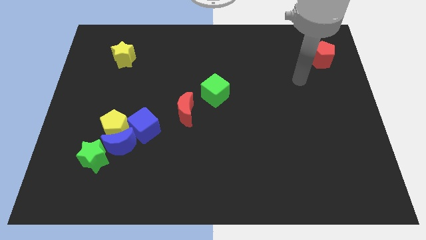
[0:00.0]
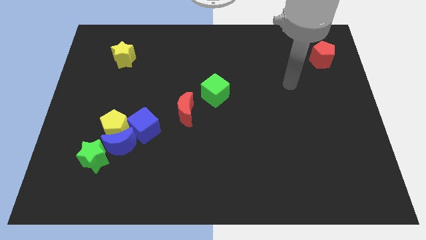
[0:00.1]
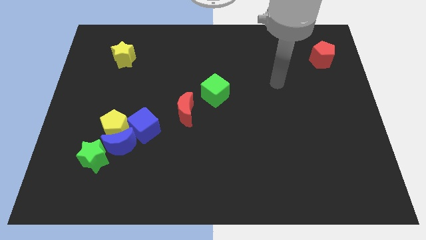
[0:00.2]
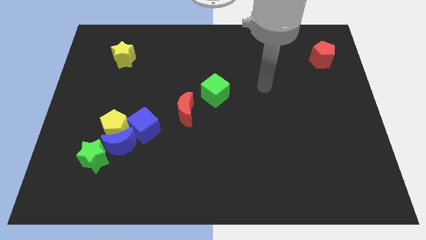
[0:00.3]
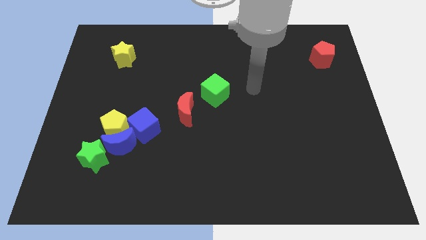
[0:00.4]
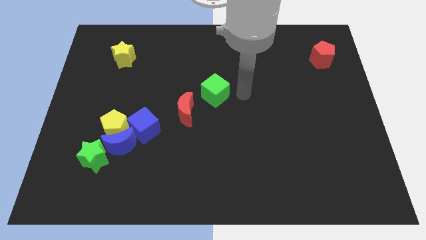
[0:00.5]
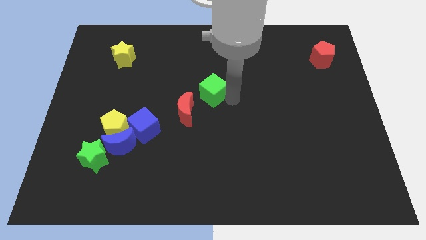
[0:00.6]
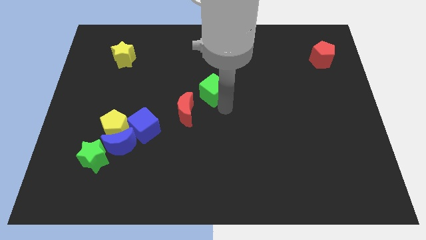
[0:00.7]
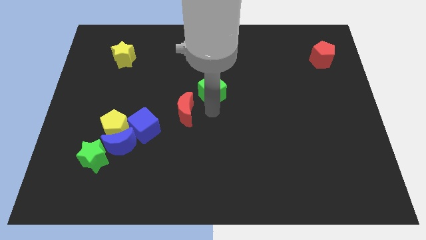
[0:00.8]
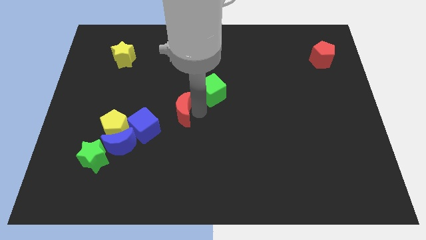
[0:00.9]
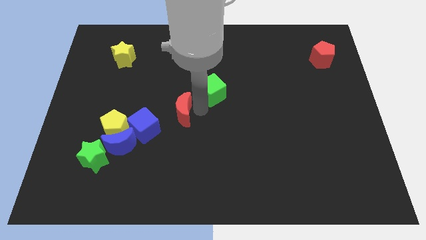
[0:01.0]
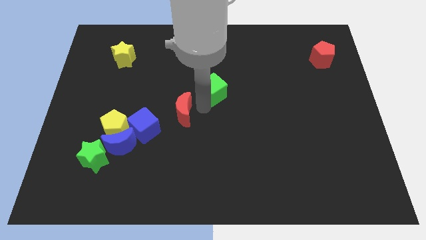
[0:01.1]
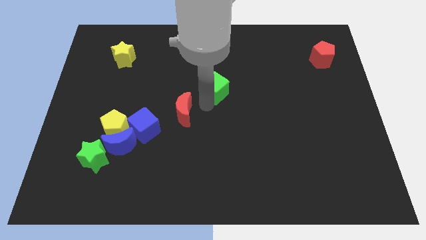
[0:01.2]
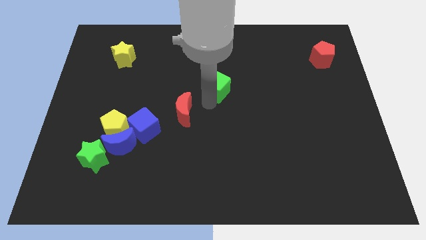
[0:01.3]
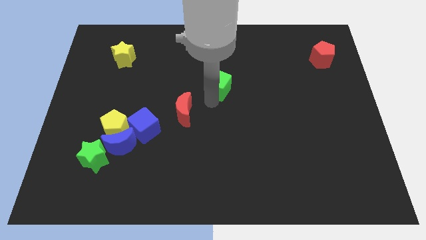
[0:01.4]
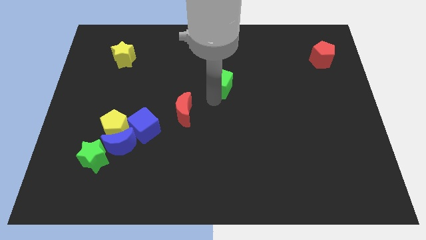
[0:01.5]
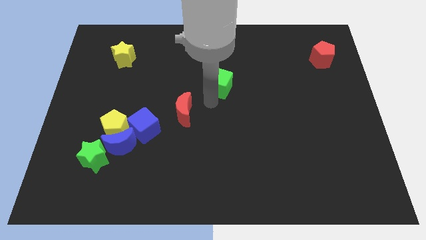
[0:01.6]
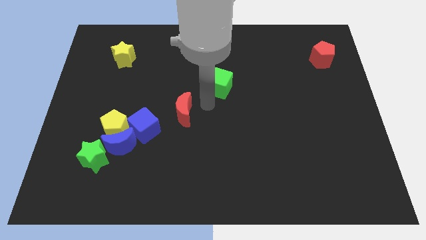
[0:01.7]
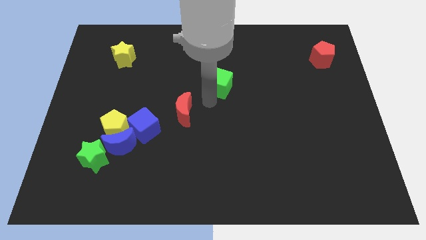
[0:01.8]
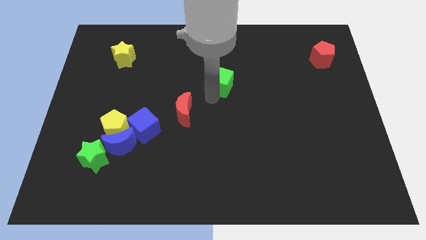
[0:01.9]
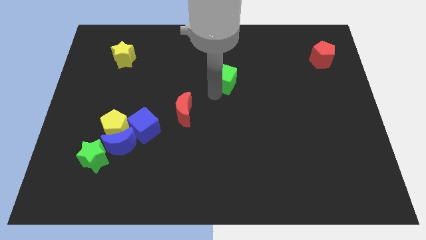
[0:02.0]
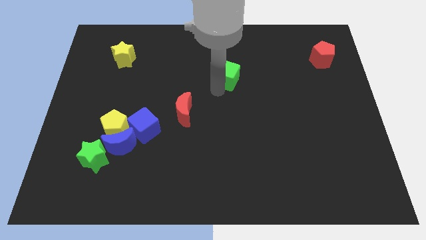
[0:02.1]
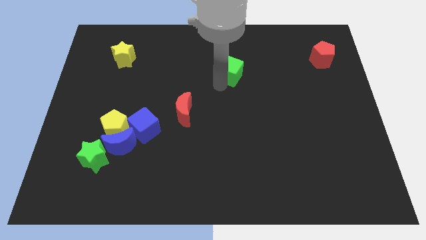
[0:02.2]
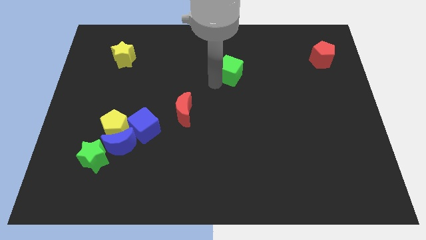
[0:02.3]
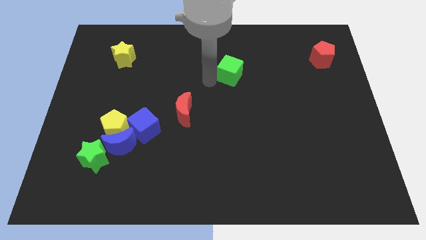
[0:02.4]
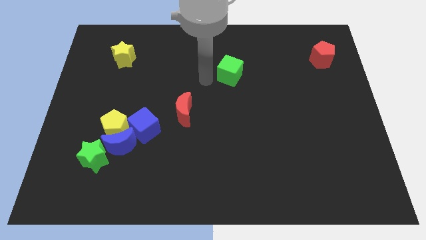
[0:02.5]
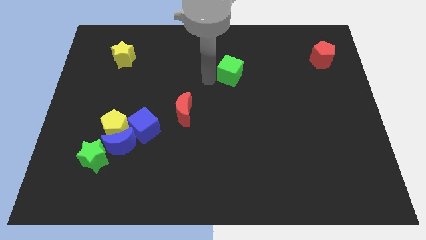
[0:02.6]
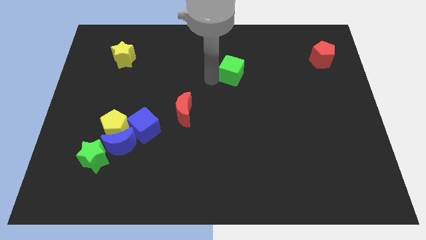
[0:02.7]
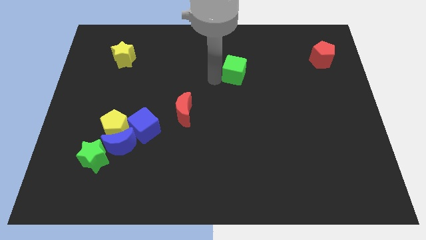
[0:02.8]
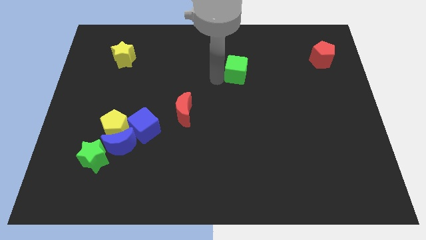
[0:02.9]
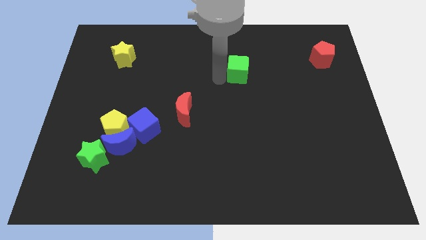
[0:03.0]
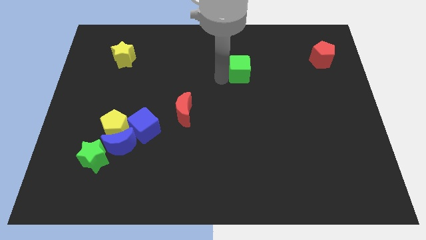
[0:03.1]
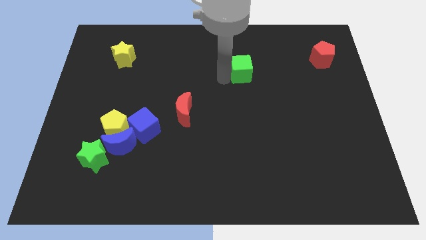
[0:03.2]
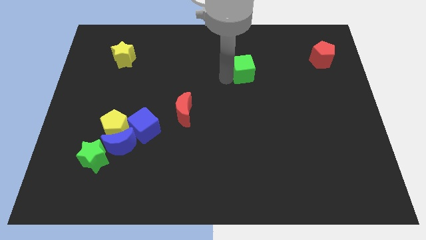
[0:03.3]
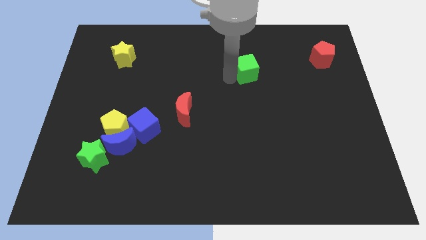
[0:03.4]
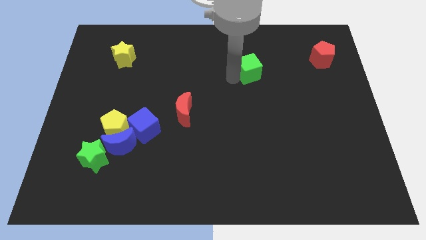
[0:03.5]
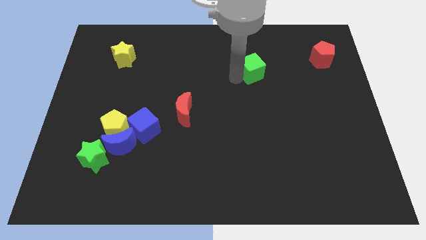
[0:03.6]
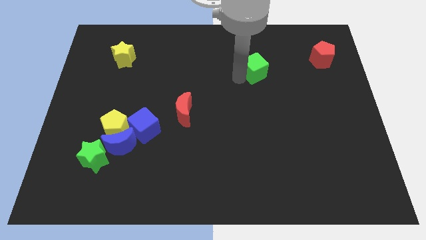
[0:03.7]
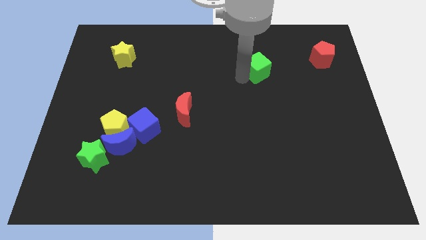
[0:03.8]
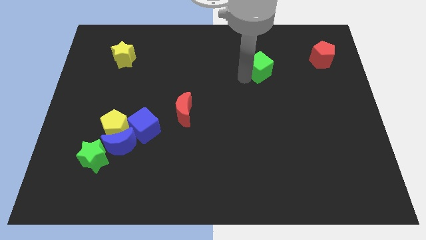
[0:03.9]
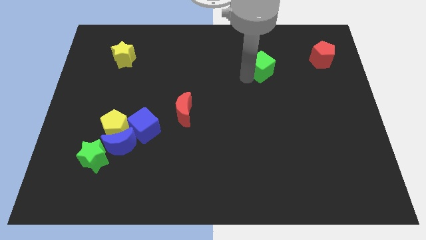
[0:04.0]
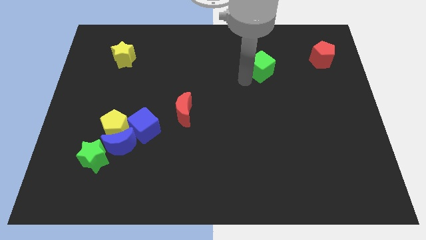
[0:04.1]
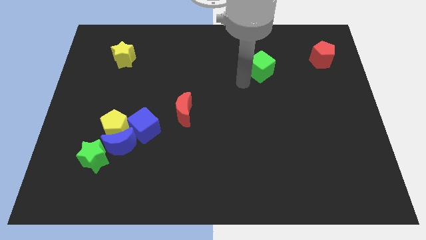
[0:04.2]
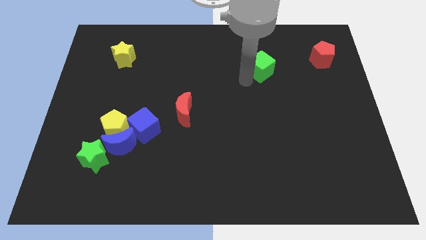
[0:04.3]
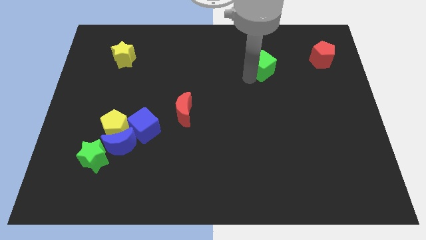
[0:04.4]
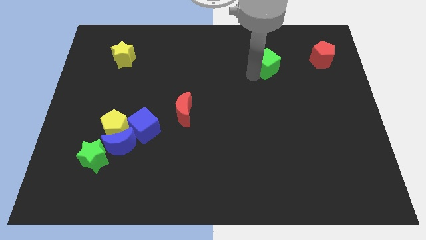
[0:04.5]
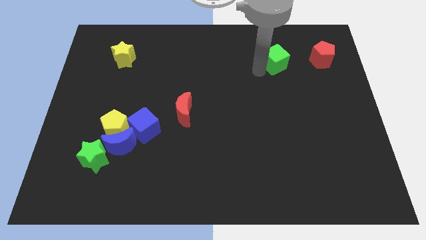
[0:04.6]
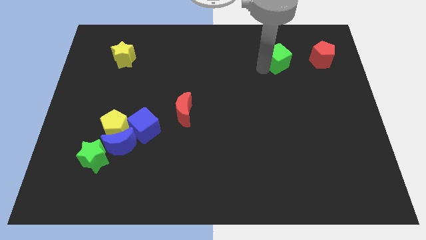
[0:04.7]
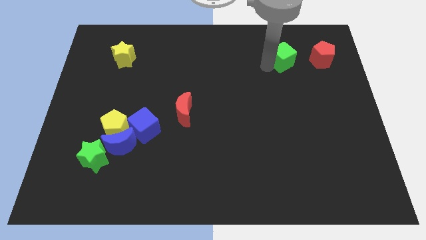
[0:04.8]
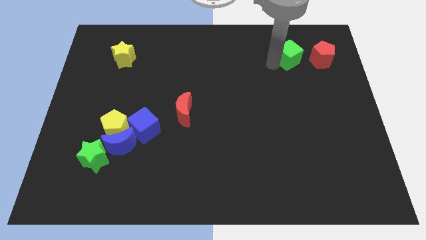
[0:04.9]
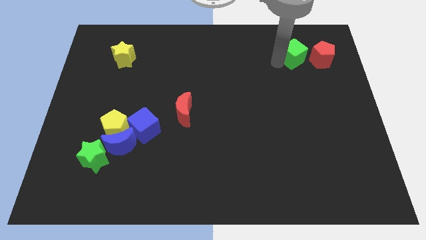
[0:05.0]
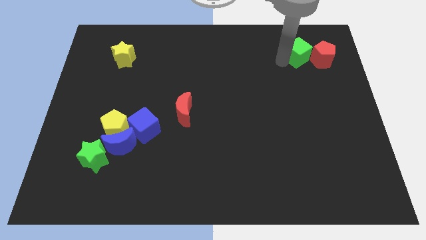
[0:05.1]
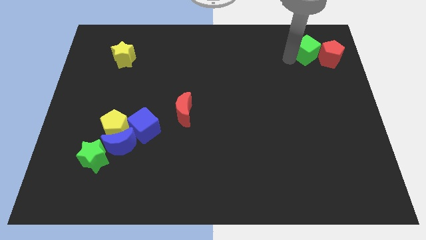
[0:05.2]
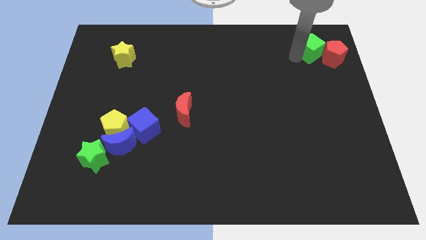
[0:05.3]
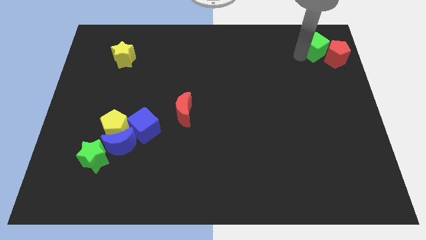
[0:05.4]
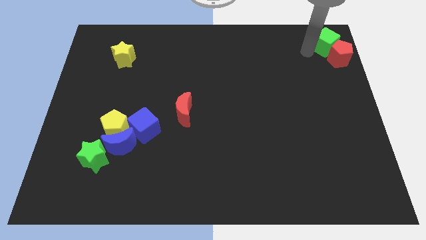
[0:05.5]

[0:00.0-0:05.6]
push the green cube to the top right of the board

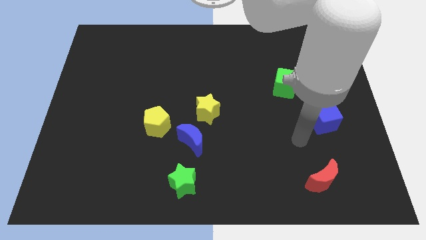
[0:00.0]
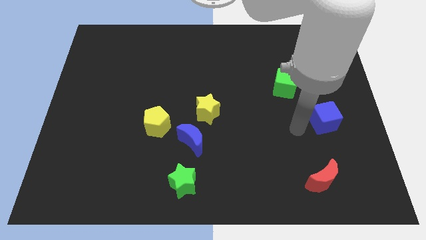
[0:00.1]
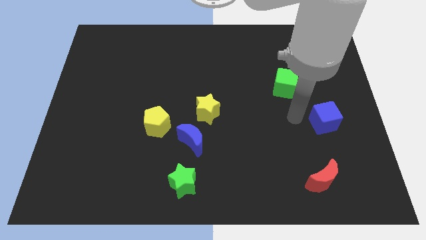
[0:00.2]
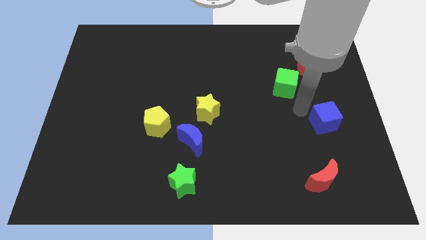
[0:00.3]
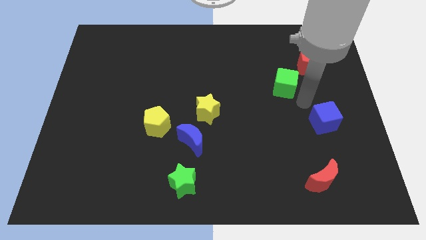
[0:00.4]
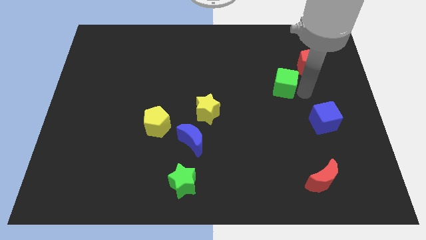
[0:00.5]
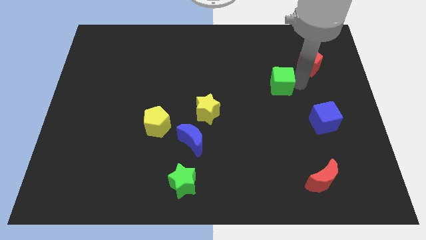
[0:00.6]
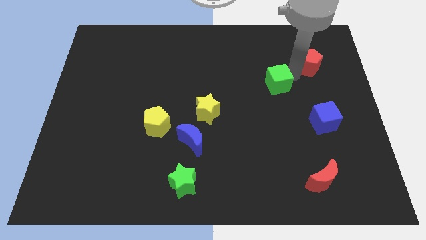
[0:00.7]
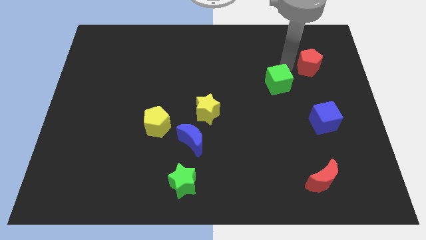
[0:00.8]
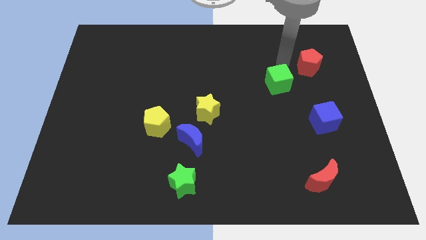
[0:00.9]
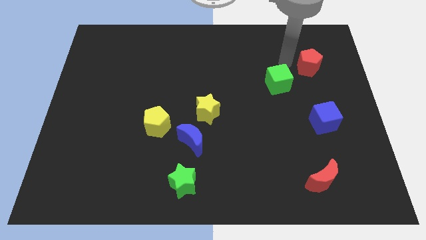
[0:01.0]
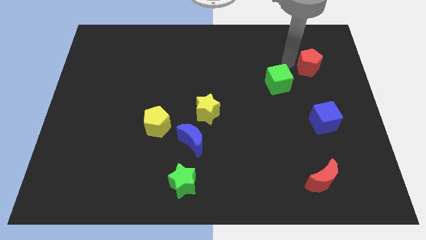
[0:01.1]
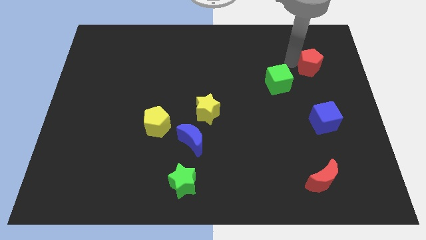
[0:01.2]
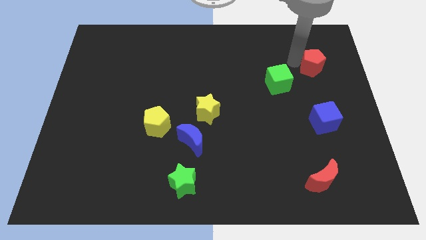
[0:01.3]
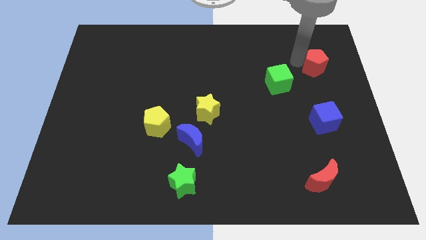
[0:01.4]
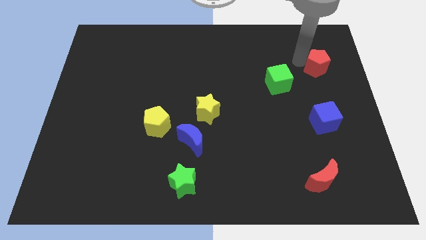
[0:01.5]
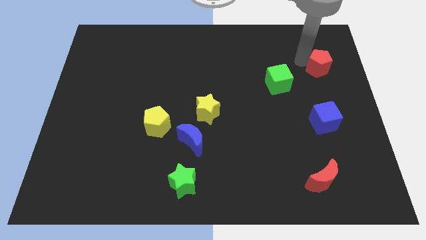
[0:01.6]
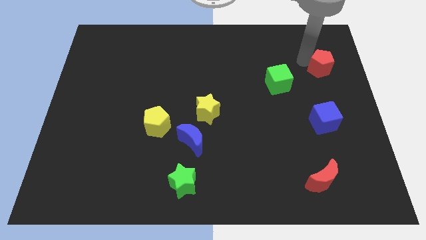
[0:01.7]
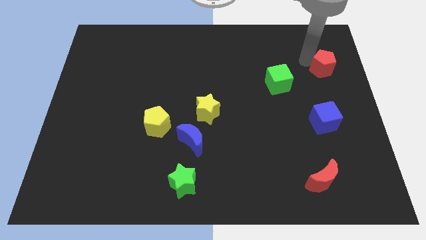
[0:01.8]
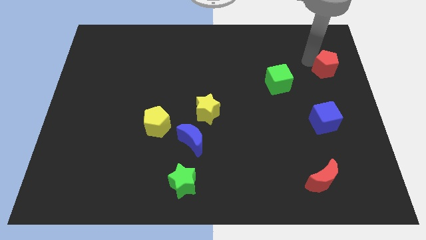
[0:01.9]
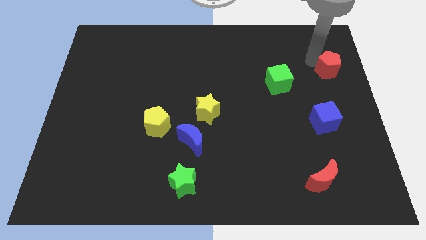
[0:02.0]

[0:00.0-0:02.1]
put the red pentagon to the center right
